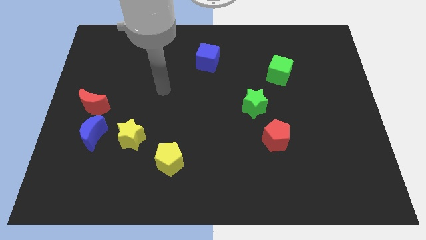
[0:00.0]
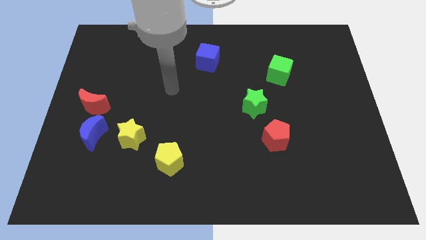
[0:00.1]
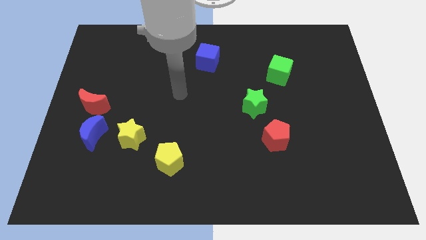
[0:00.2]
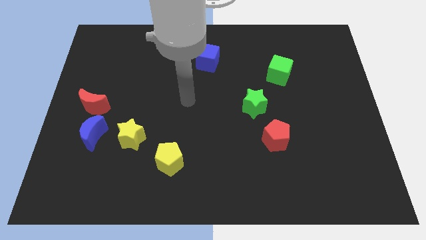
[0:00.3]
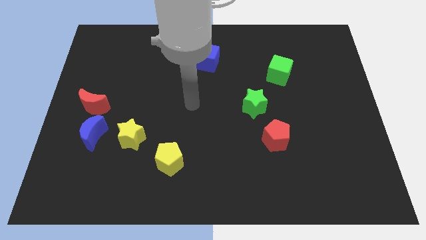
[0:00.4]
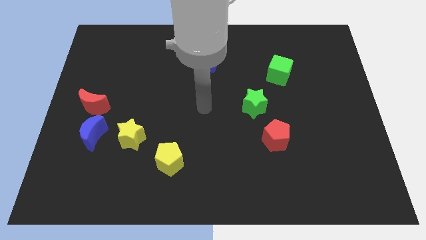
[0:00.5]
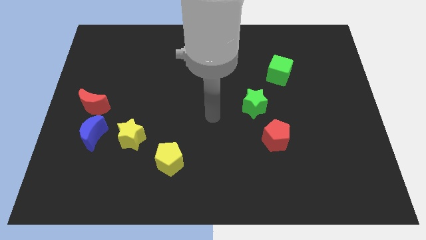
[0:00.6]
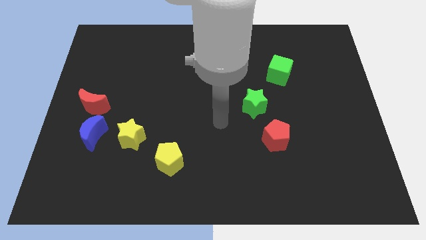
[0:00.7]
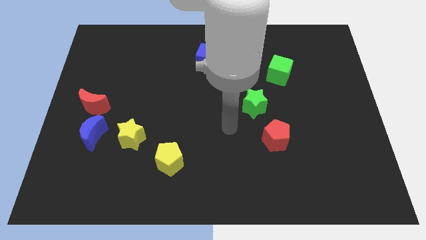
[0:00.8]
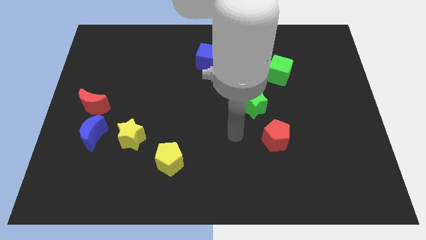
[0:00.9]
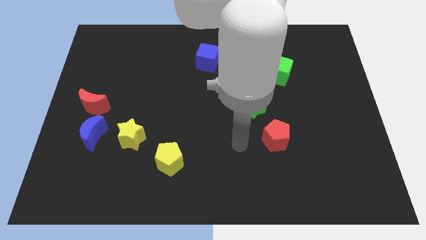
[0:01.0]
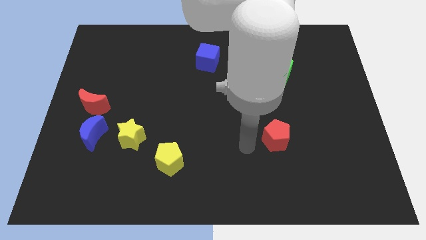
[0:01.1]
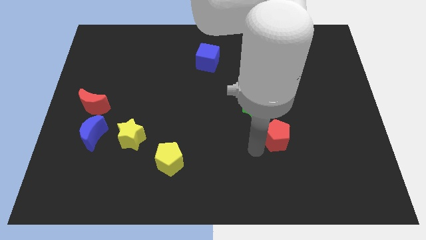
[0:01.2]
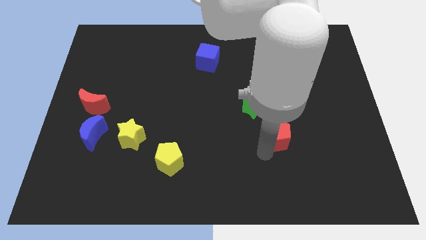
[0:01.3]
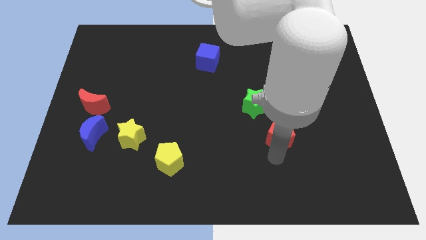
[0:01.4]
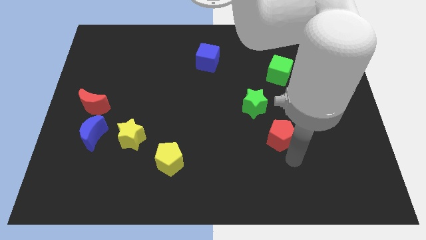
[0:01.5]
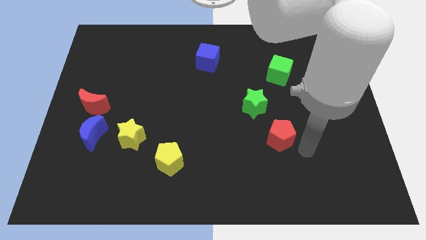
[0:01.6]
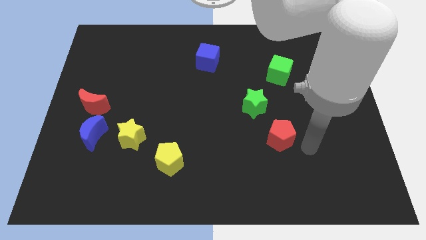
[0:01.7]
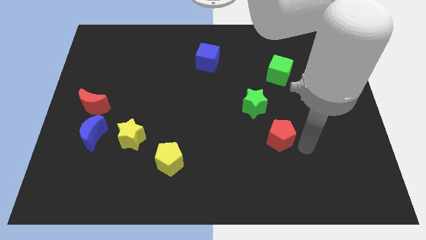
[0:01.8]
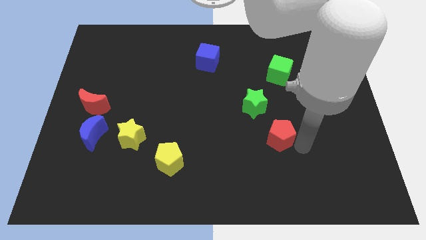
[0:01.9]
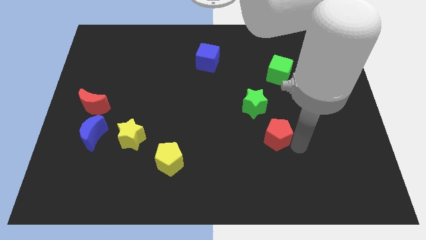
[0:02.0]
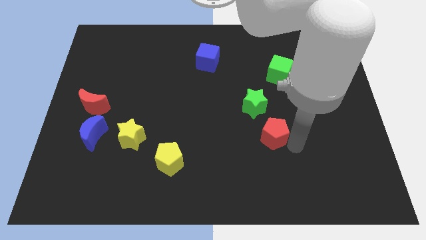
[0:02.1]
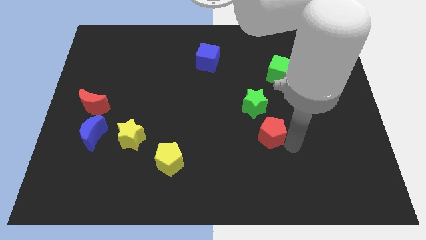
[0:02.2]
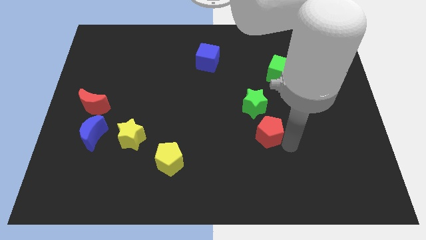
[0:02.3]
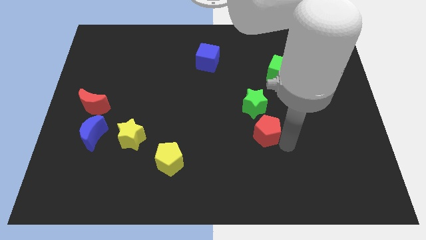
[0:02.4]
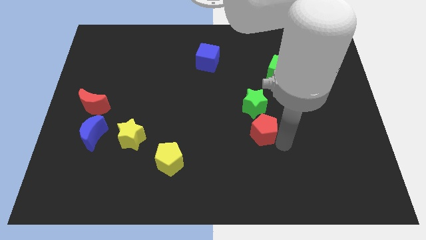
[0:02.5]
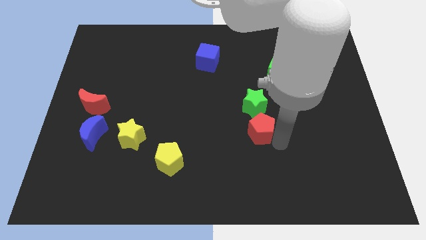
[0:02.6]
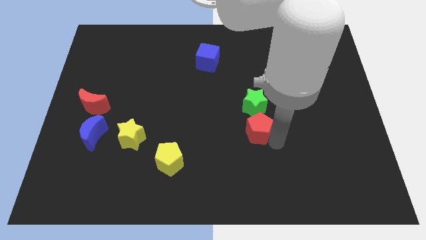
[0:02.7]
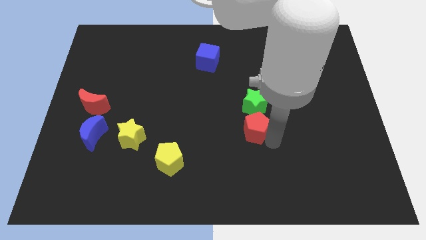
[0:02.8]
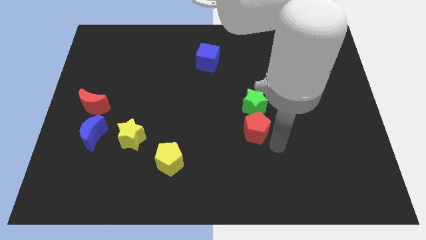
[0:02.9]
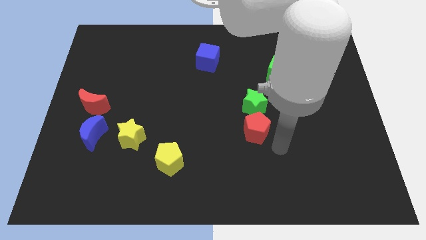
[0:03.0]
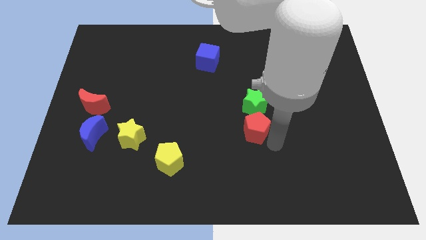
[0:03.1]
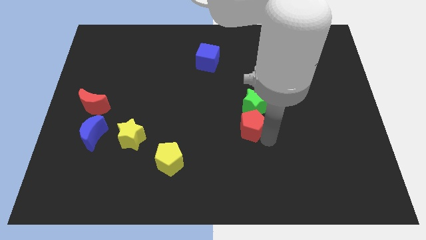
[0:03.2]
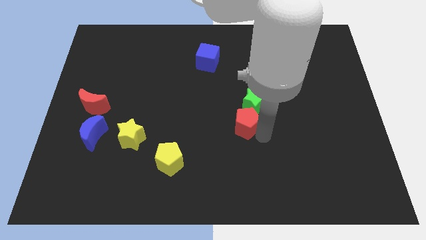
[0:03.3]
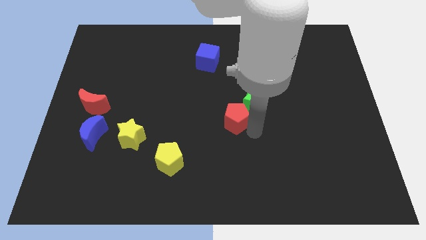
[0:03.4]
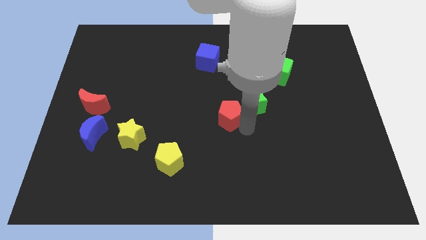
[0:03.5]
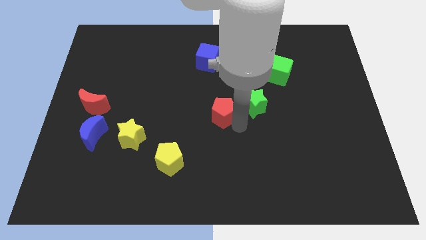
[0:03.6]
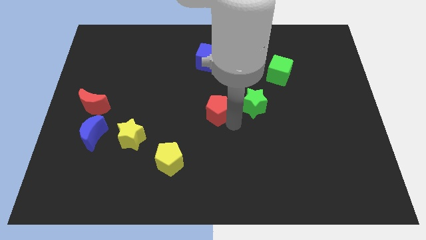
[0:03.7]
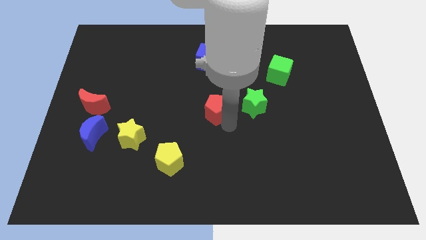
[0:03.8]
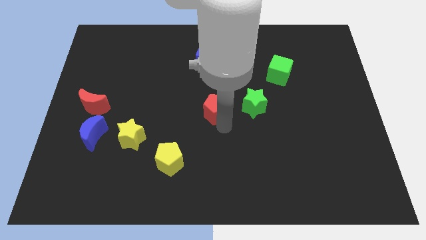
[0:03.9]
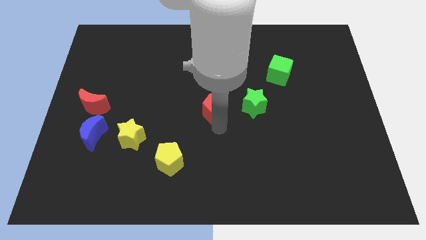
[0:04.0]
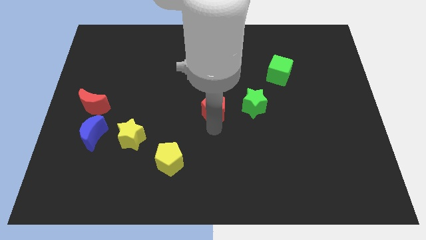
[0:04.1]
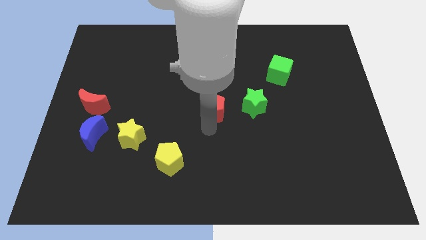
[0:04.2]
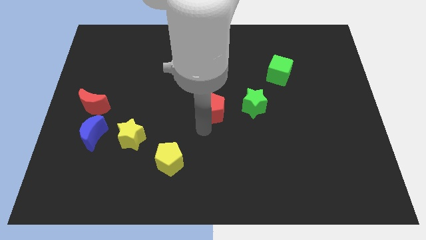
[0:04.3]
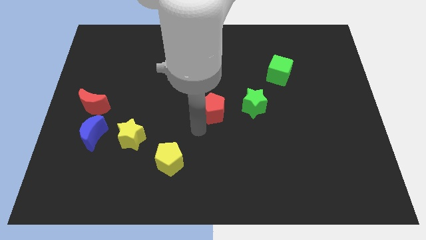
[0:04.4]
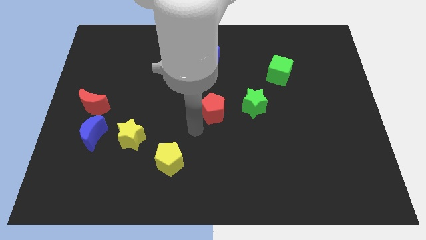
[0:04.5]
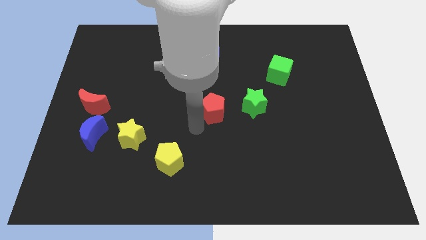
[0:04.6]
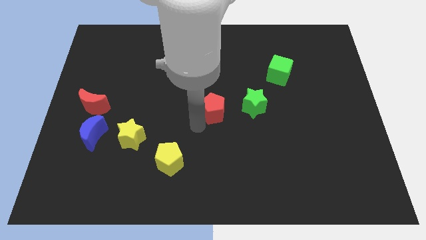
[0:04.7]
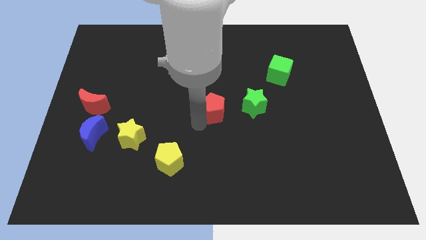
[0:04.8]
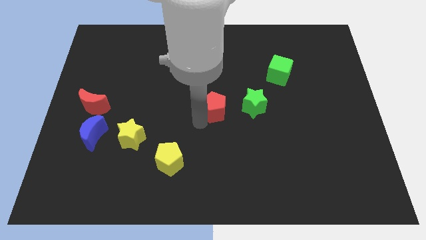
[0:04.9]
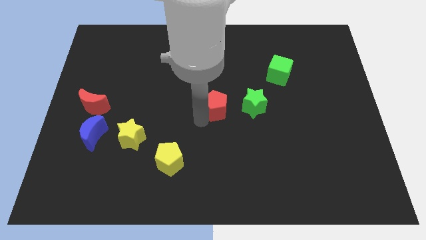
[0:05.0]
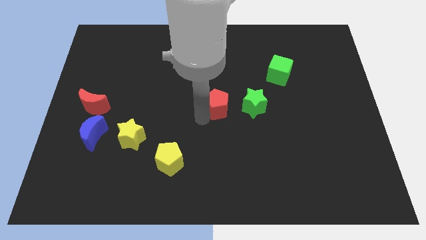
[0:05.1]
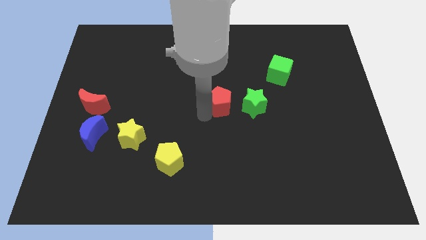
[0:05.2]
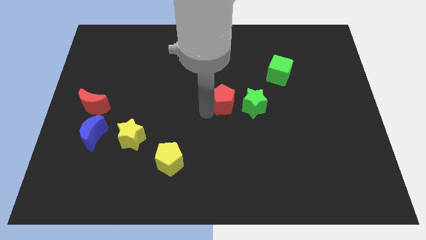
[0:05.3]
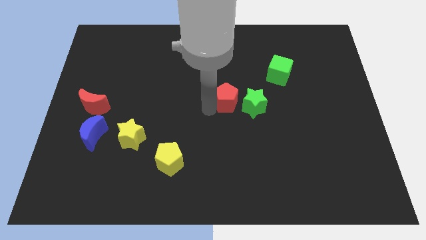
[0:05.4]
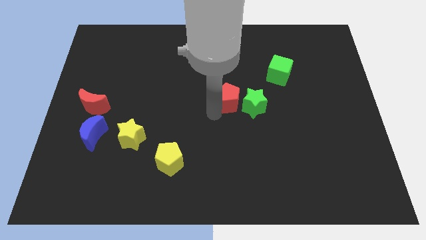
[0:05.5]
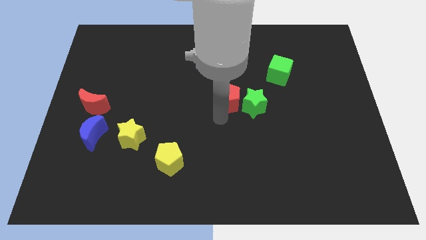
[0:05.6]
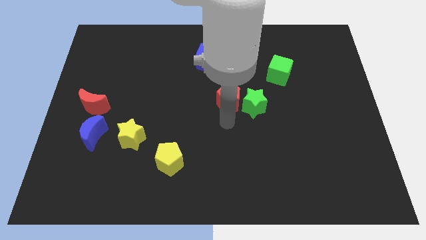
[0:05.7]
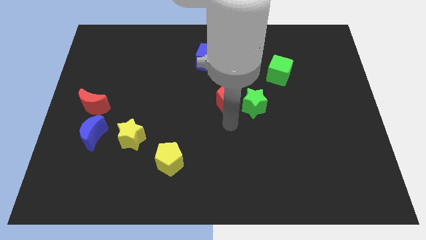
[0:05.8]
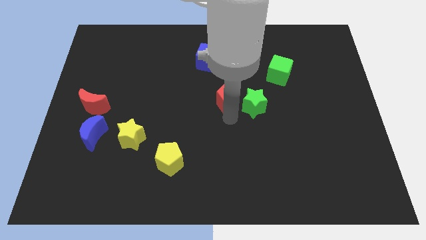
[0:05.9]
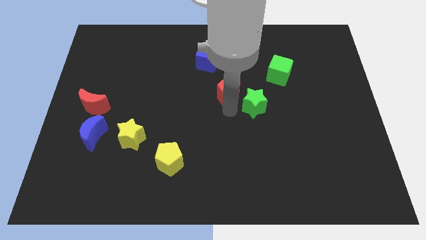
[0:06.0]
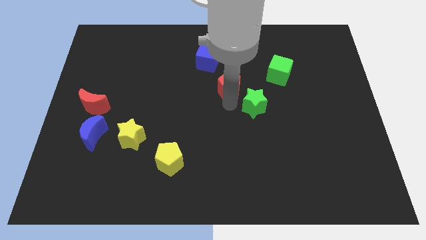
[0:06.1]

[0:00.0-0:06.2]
slide the red pentagon to the bottom right side of the blue cube

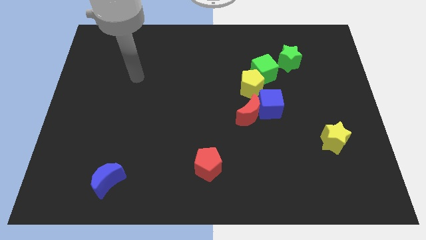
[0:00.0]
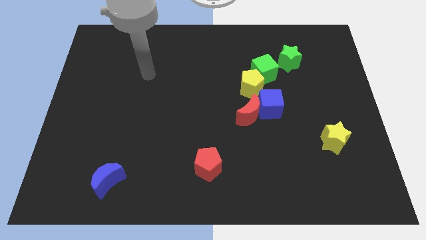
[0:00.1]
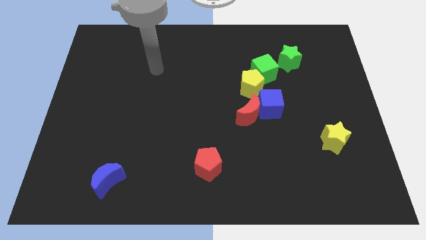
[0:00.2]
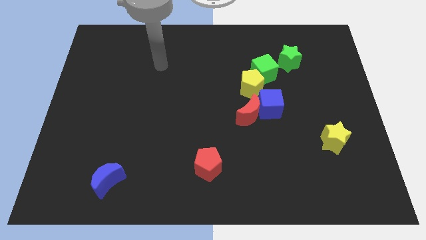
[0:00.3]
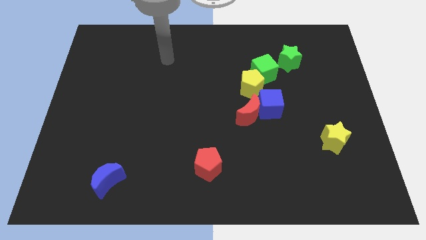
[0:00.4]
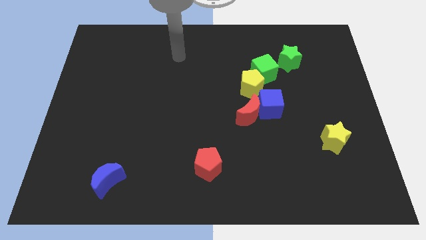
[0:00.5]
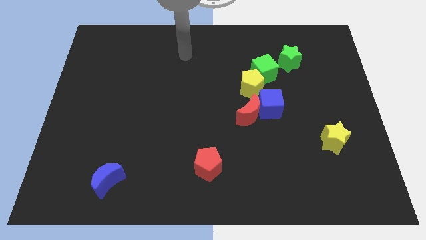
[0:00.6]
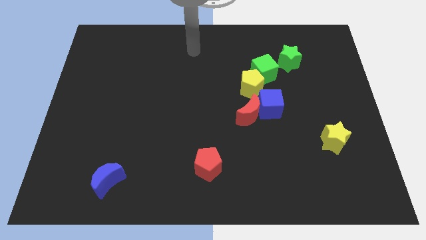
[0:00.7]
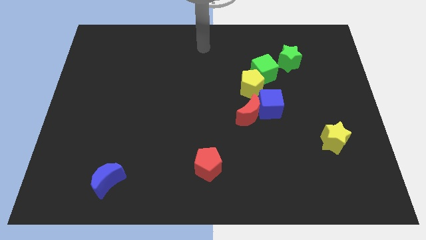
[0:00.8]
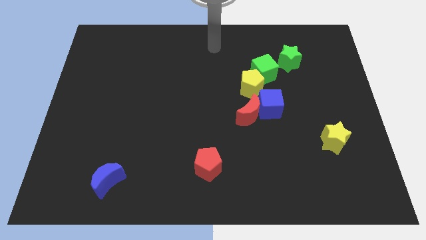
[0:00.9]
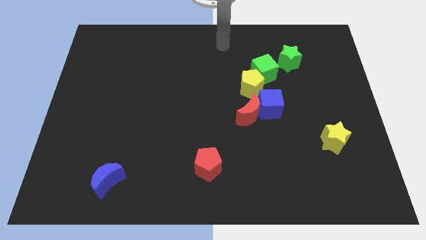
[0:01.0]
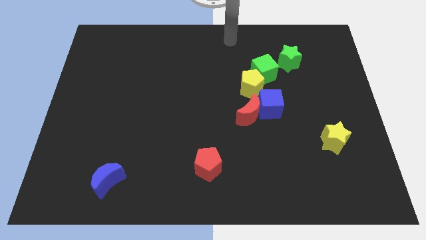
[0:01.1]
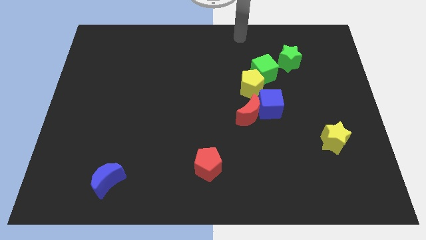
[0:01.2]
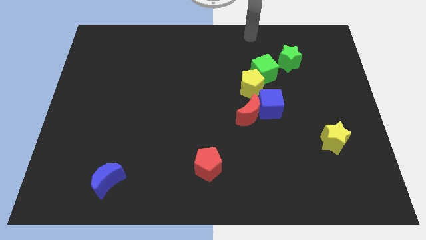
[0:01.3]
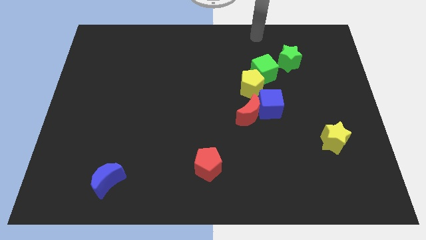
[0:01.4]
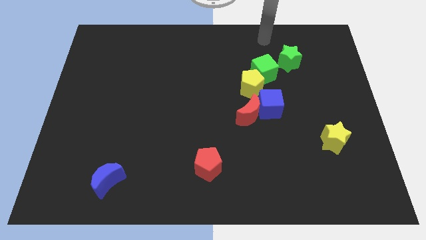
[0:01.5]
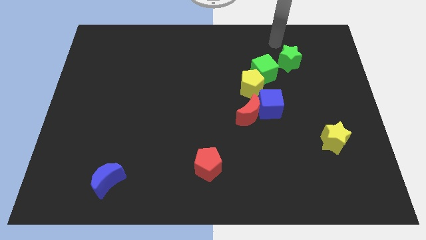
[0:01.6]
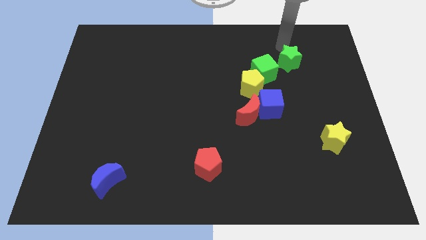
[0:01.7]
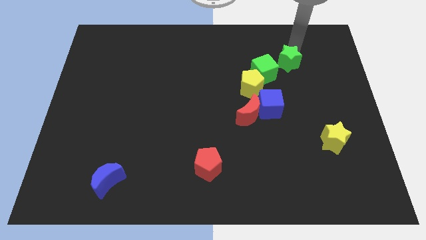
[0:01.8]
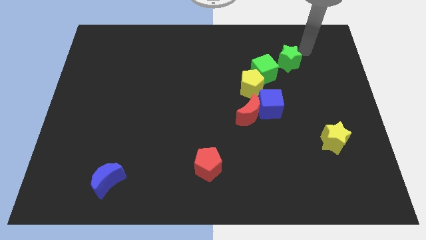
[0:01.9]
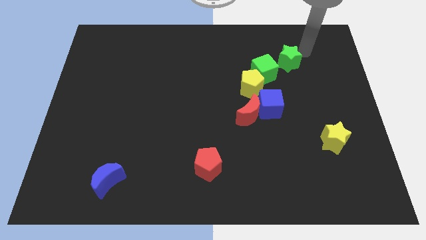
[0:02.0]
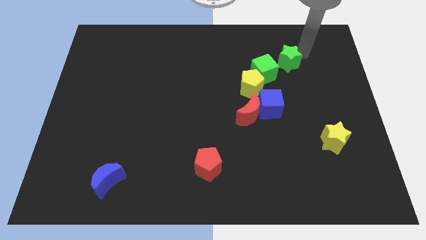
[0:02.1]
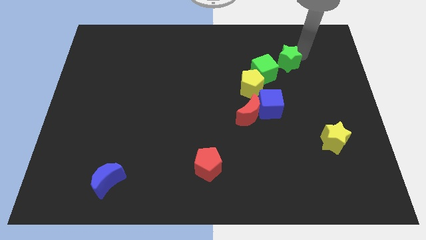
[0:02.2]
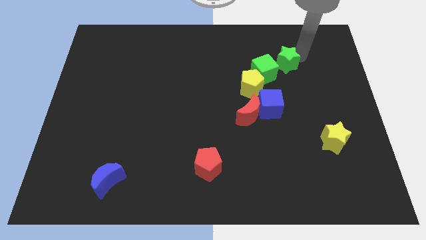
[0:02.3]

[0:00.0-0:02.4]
move the green star to the top right of the yellow pentagon
